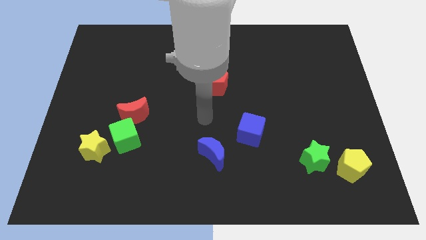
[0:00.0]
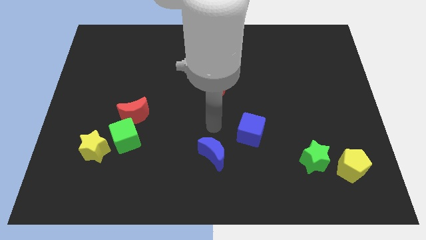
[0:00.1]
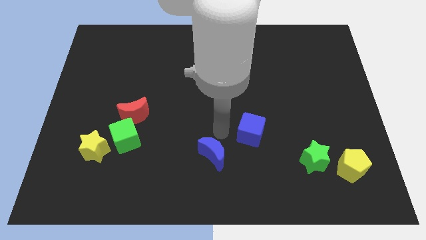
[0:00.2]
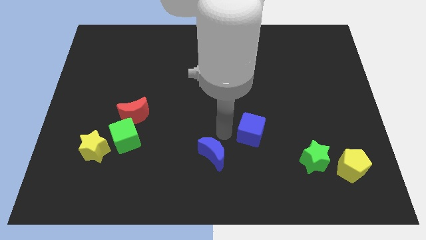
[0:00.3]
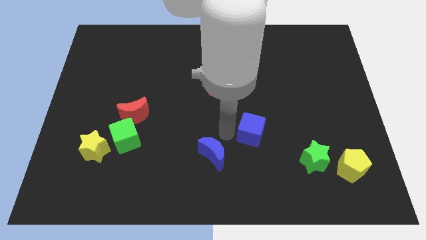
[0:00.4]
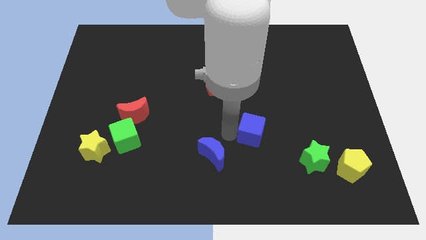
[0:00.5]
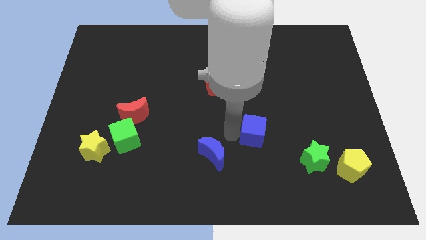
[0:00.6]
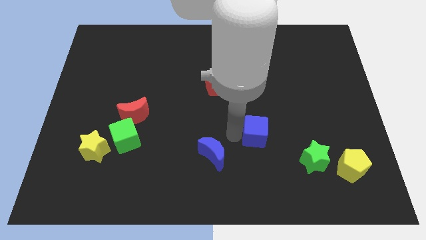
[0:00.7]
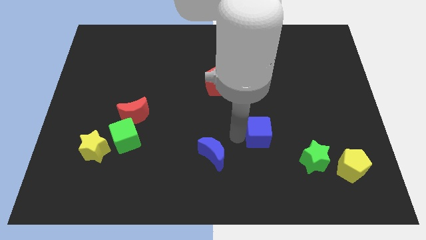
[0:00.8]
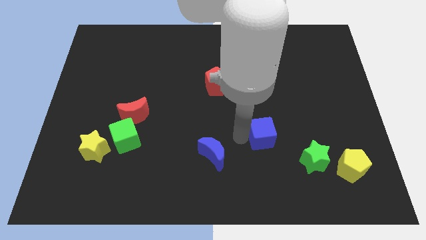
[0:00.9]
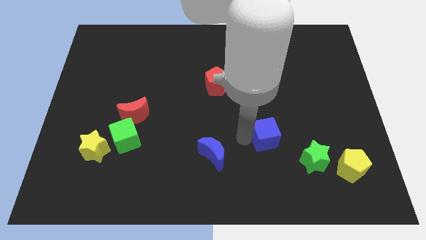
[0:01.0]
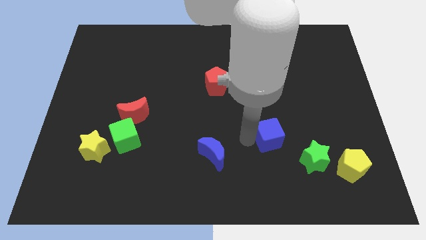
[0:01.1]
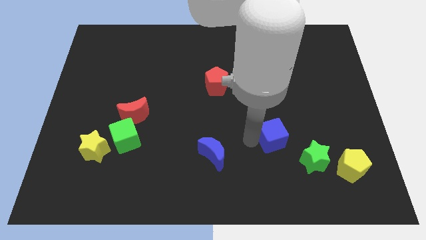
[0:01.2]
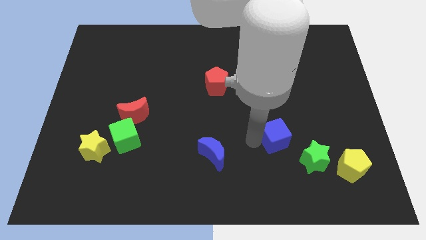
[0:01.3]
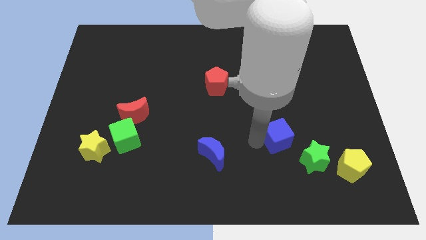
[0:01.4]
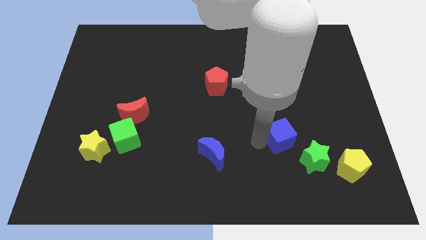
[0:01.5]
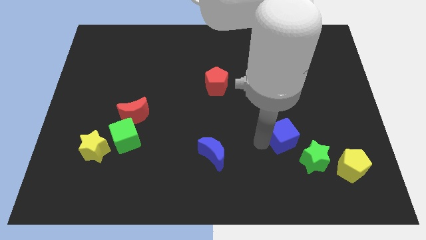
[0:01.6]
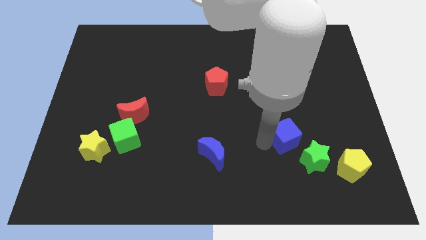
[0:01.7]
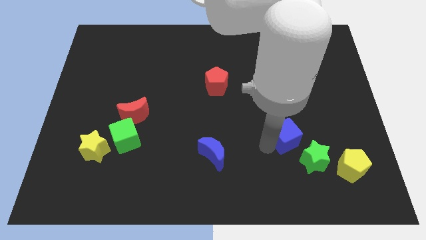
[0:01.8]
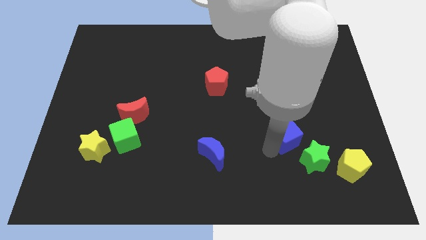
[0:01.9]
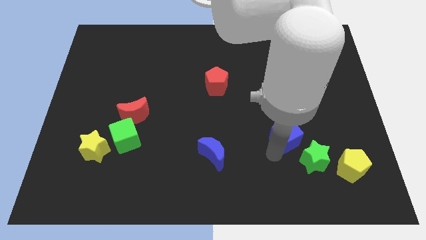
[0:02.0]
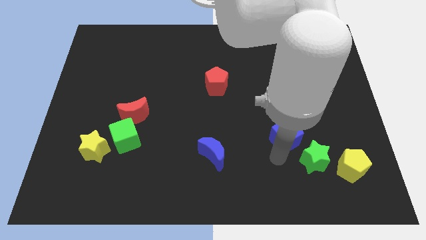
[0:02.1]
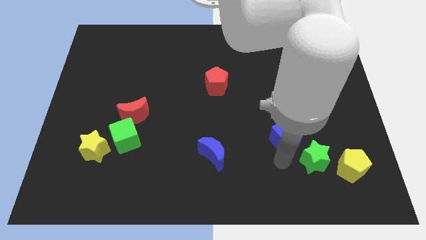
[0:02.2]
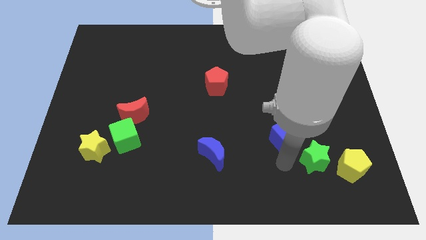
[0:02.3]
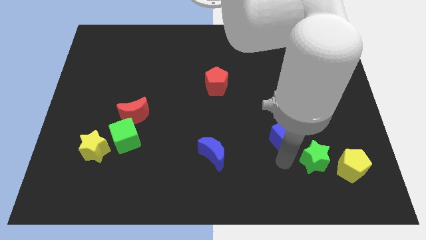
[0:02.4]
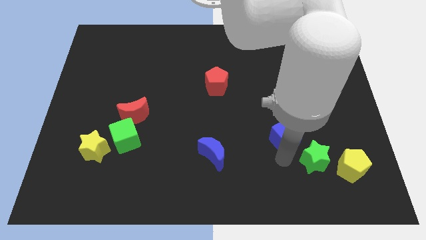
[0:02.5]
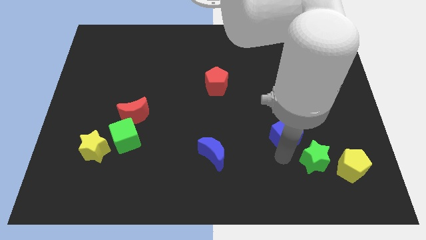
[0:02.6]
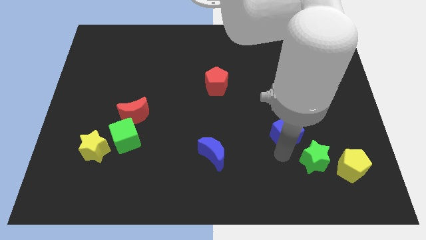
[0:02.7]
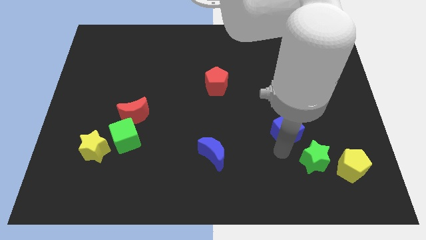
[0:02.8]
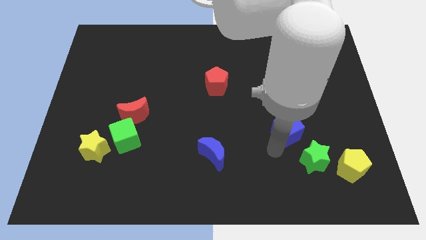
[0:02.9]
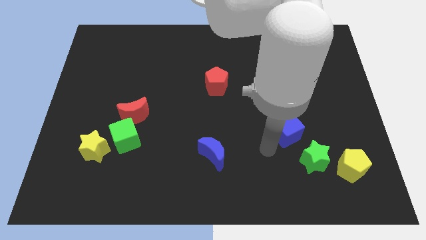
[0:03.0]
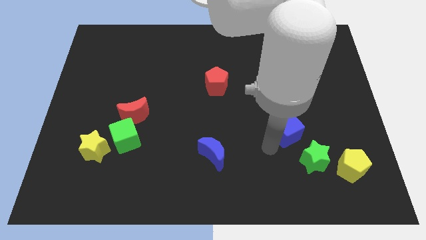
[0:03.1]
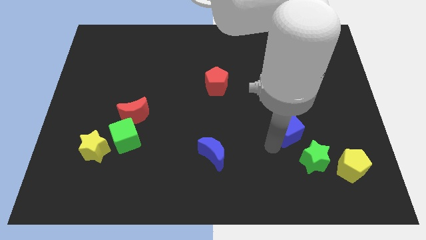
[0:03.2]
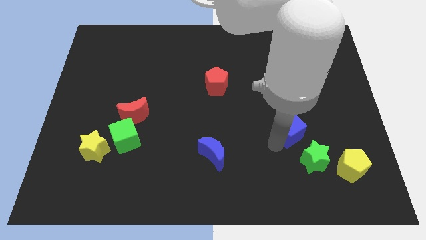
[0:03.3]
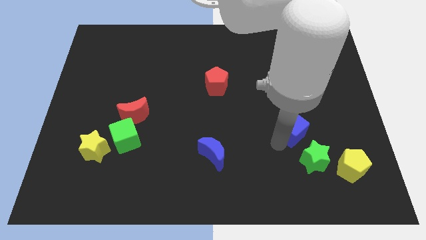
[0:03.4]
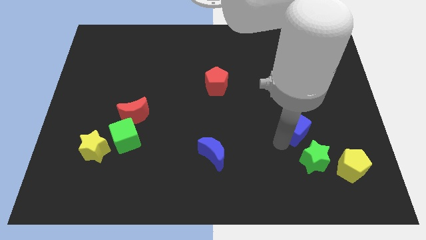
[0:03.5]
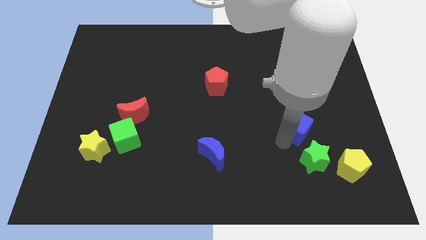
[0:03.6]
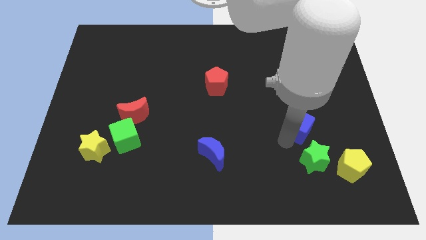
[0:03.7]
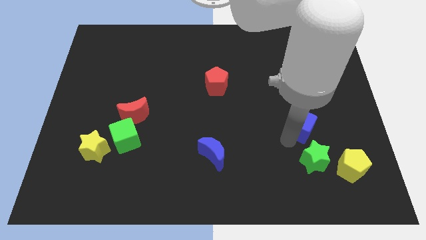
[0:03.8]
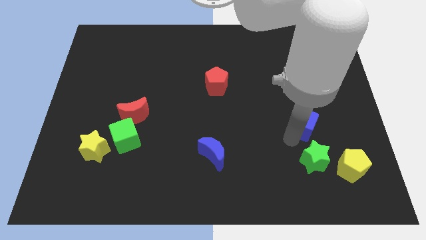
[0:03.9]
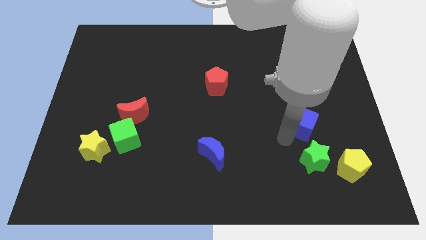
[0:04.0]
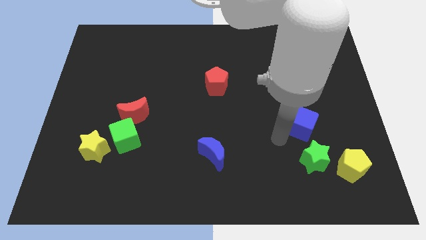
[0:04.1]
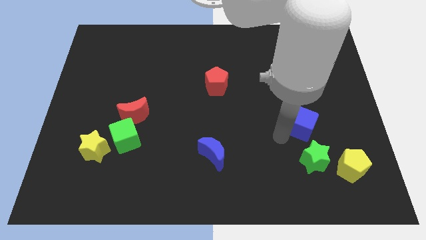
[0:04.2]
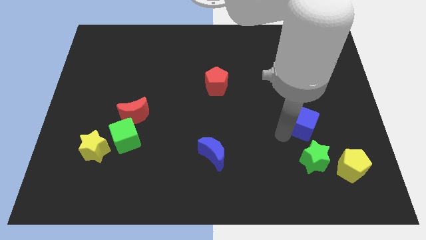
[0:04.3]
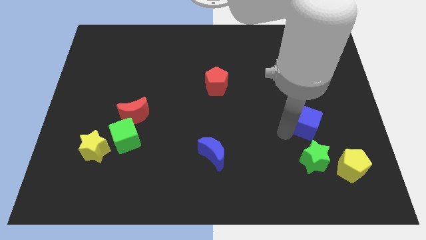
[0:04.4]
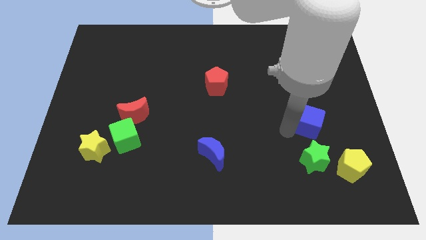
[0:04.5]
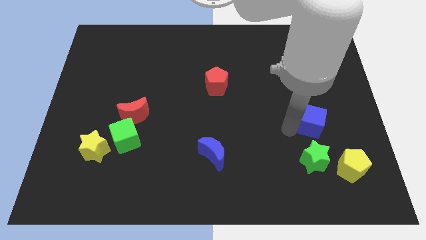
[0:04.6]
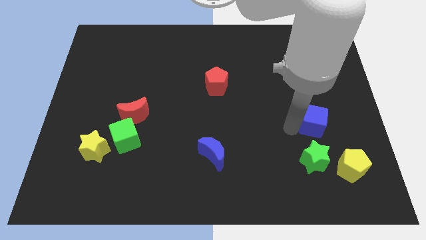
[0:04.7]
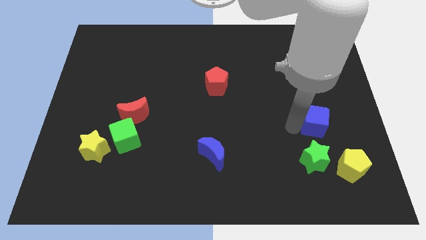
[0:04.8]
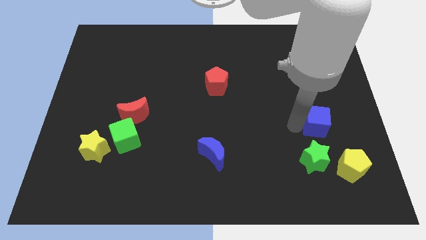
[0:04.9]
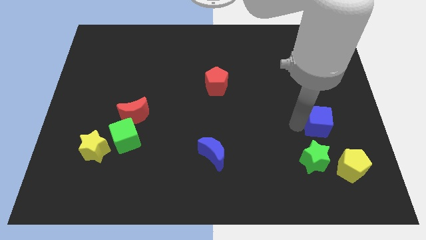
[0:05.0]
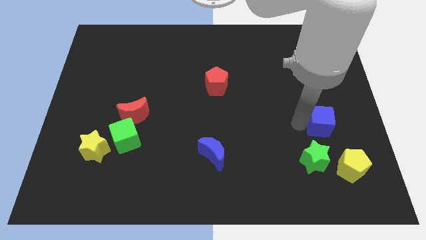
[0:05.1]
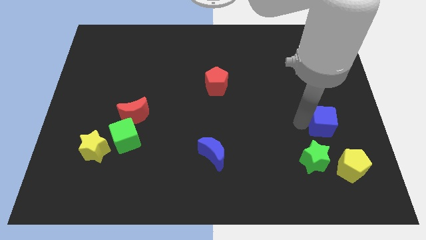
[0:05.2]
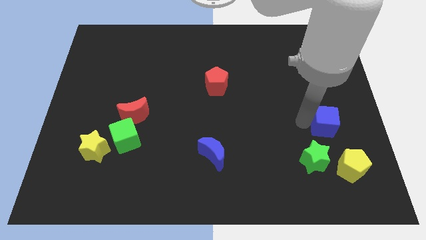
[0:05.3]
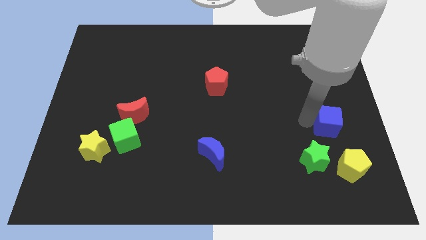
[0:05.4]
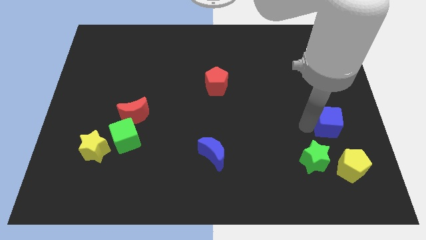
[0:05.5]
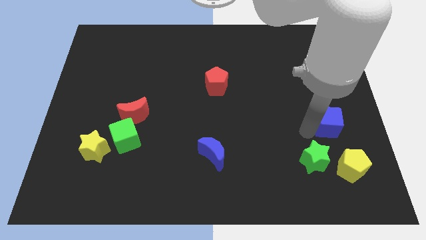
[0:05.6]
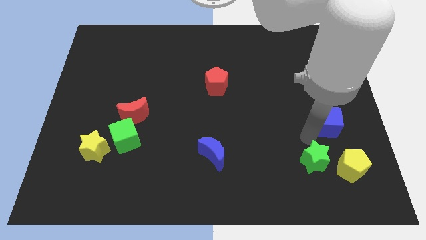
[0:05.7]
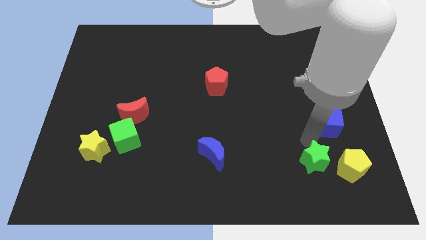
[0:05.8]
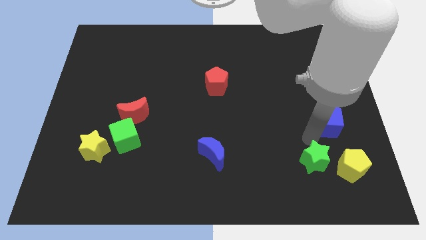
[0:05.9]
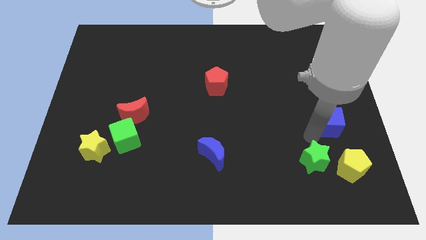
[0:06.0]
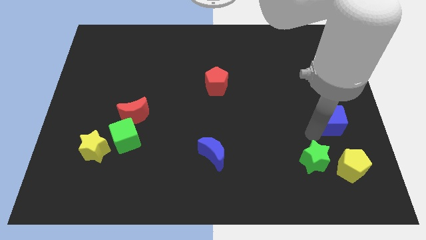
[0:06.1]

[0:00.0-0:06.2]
move the blue cube to the right side
